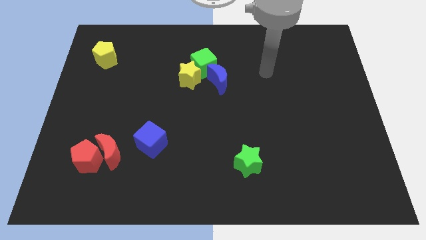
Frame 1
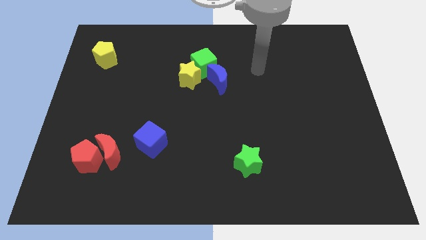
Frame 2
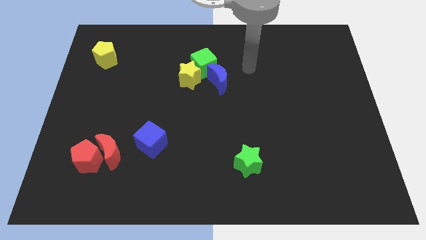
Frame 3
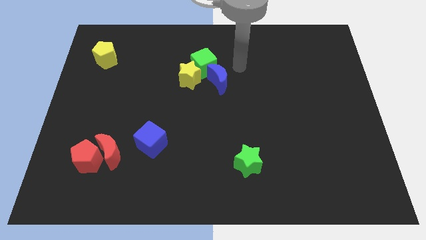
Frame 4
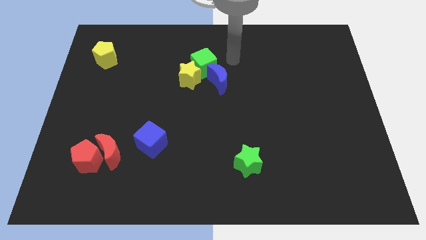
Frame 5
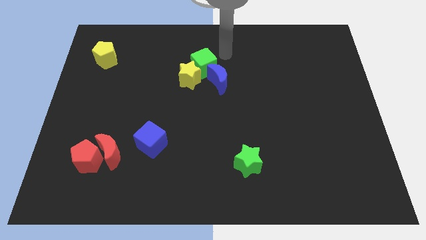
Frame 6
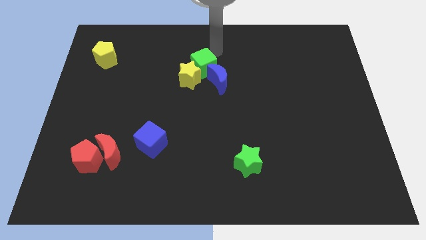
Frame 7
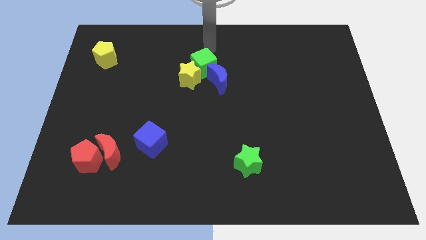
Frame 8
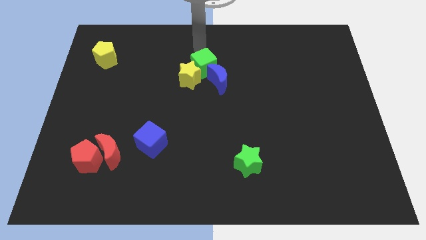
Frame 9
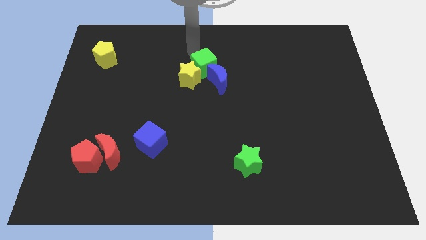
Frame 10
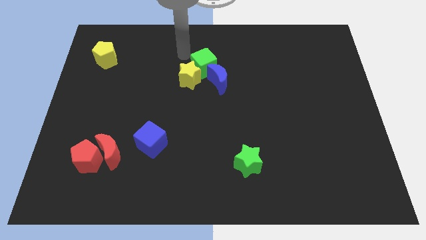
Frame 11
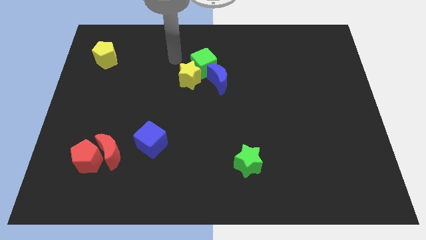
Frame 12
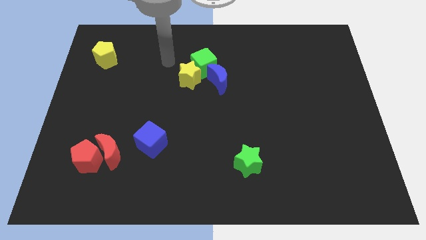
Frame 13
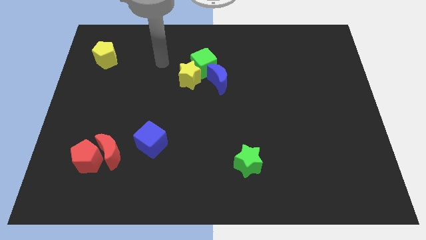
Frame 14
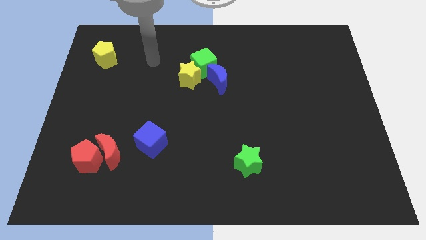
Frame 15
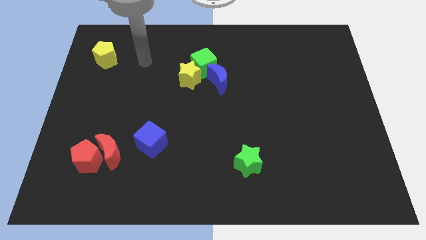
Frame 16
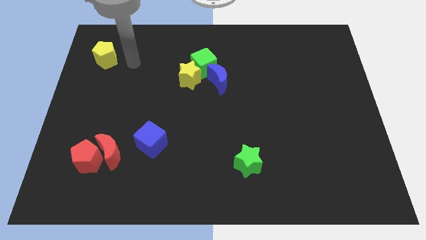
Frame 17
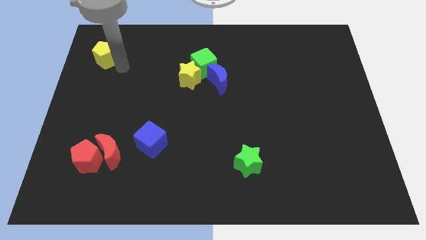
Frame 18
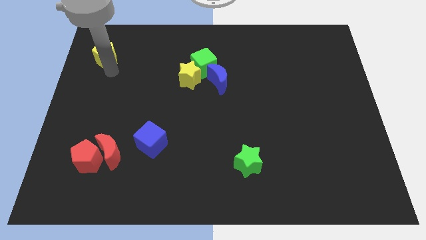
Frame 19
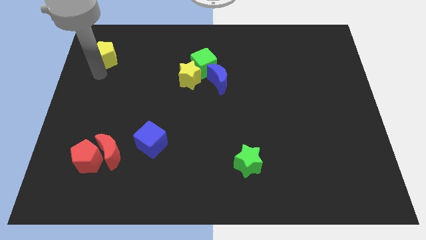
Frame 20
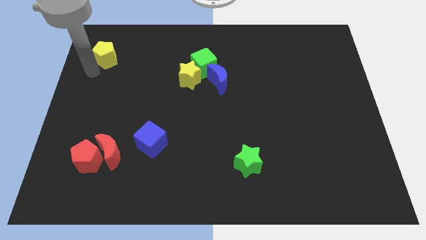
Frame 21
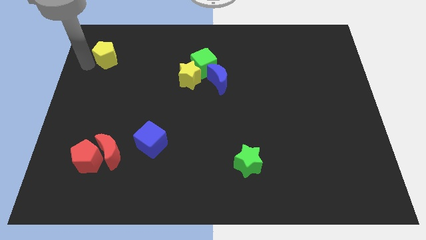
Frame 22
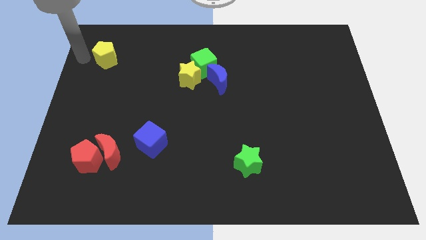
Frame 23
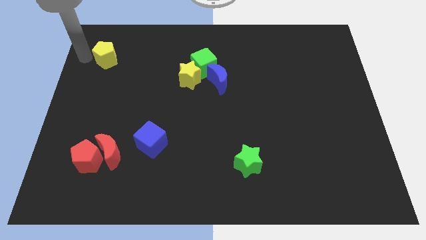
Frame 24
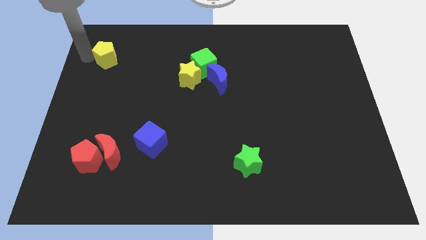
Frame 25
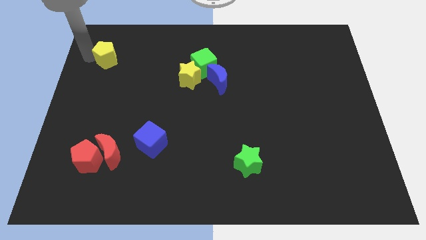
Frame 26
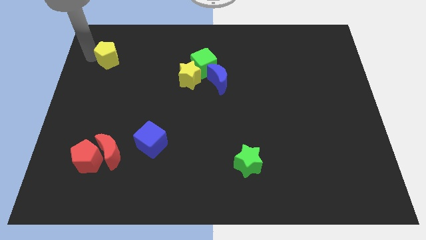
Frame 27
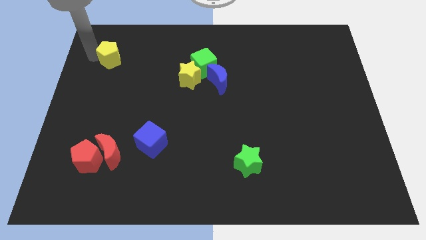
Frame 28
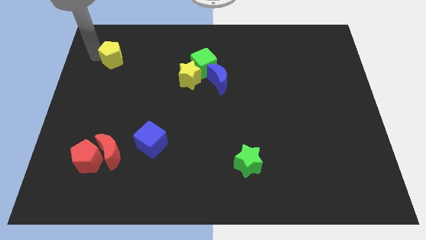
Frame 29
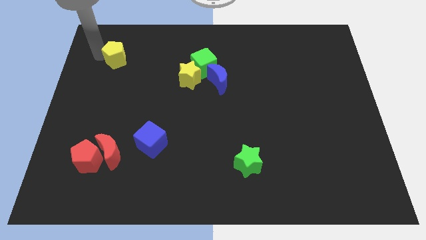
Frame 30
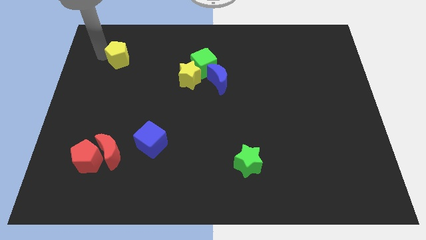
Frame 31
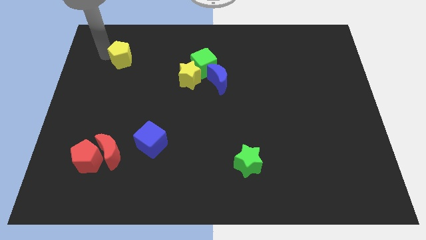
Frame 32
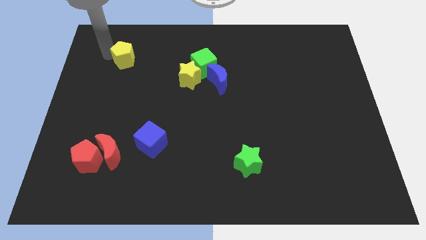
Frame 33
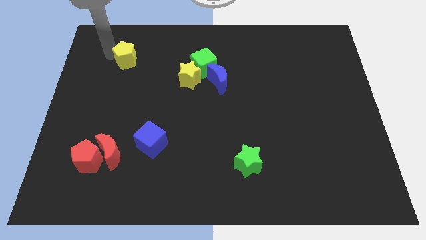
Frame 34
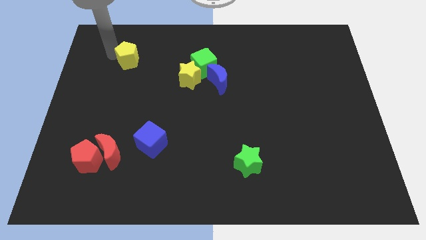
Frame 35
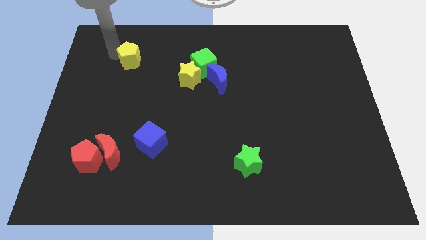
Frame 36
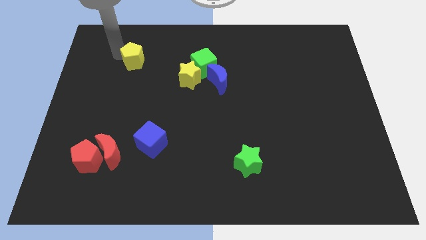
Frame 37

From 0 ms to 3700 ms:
move the yellow pentagon to the right a little

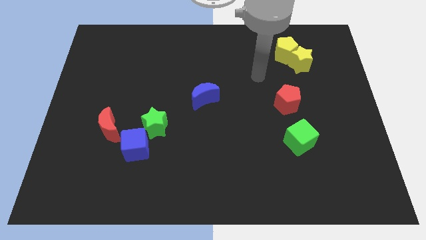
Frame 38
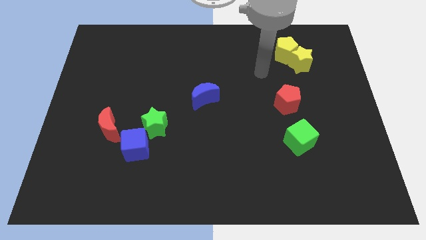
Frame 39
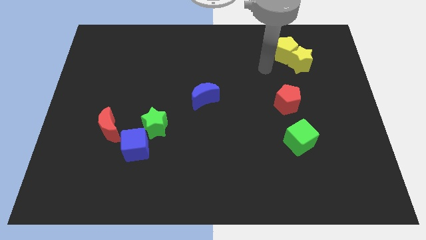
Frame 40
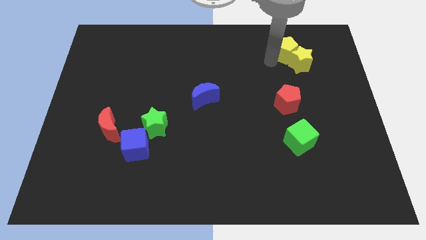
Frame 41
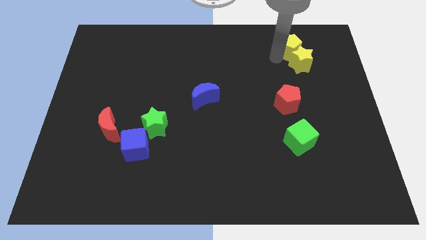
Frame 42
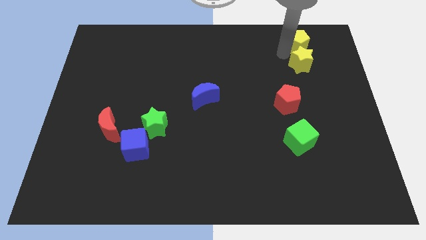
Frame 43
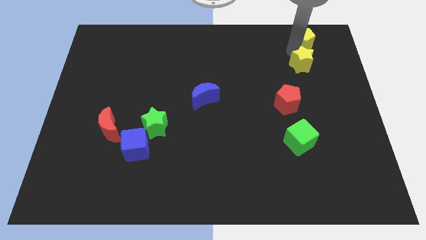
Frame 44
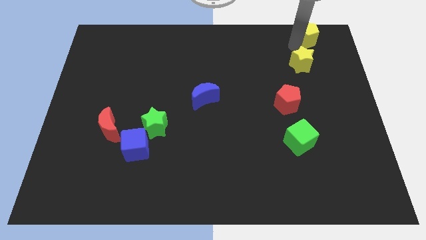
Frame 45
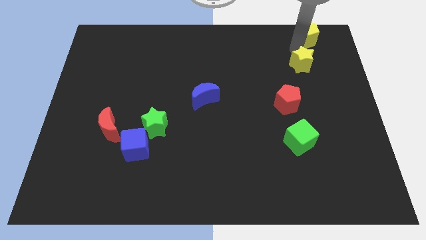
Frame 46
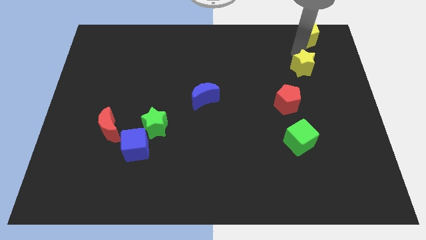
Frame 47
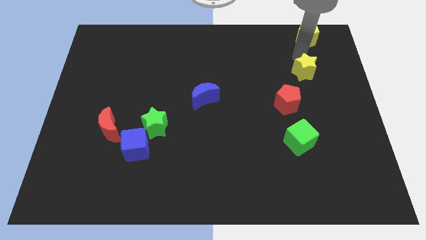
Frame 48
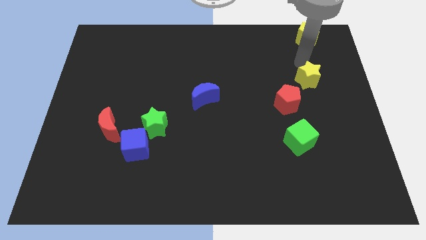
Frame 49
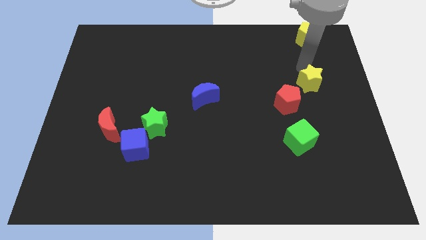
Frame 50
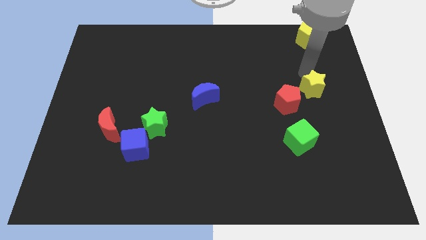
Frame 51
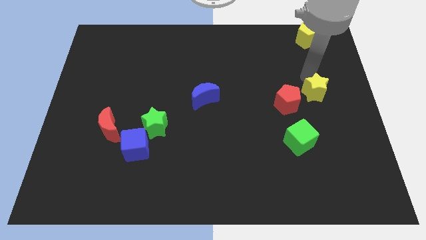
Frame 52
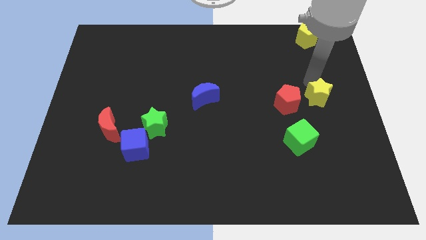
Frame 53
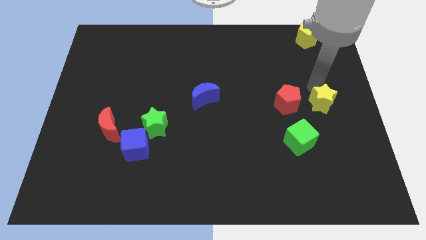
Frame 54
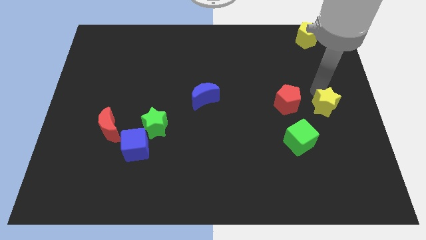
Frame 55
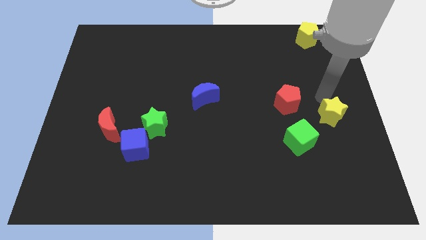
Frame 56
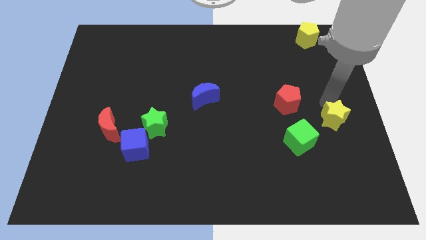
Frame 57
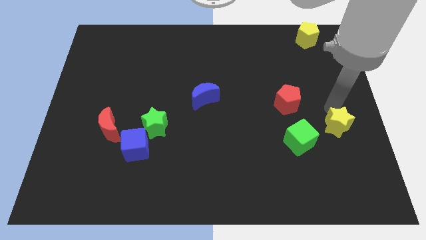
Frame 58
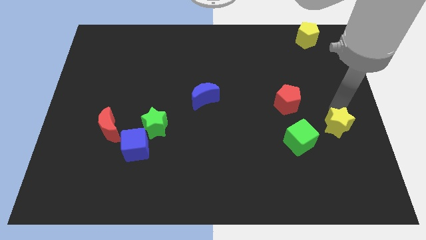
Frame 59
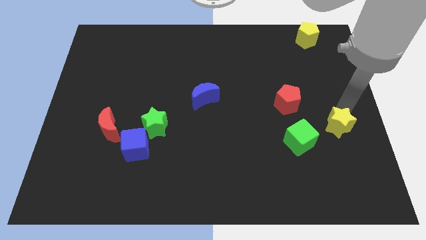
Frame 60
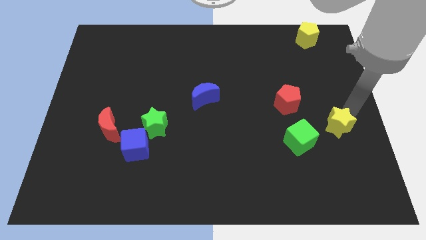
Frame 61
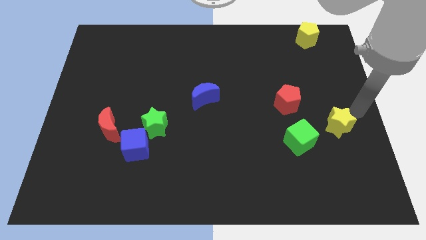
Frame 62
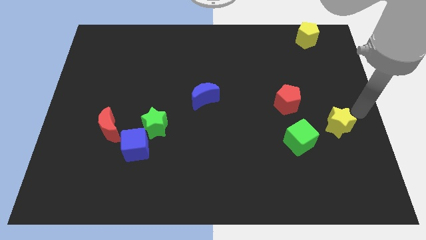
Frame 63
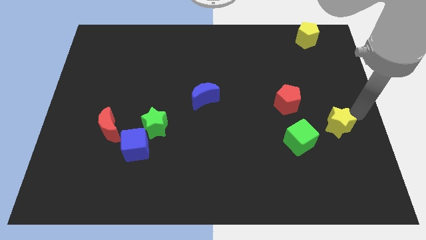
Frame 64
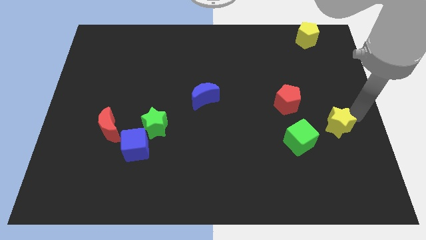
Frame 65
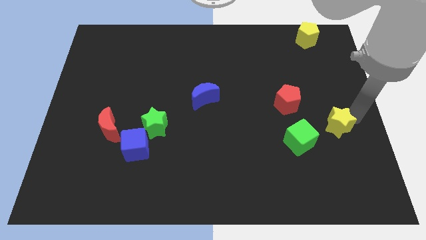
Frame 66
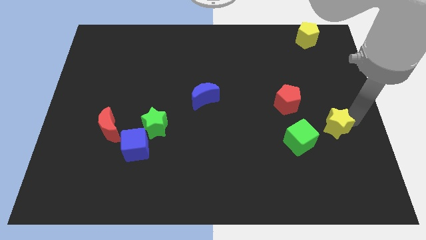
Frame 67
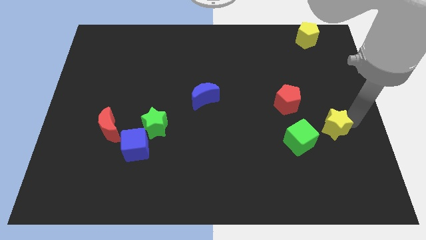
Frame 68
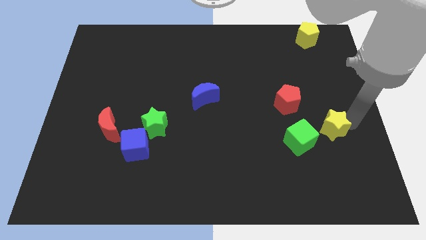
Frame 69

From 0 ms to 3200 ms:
slide the yellow star down

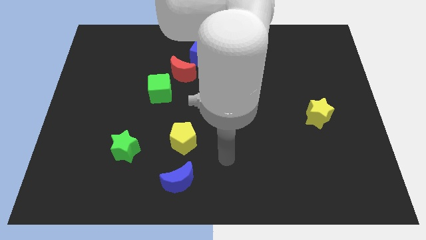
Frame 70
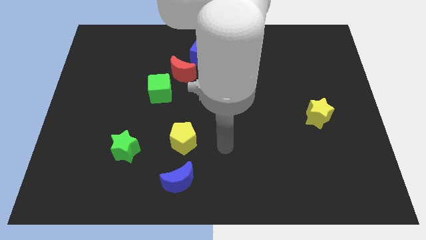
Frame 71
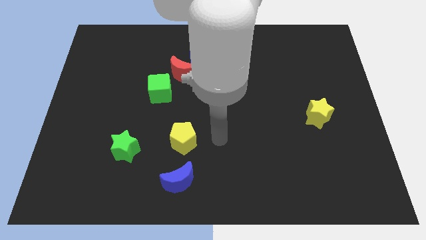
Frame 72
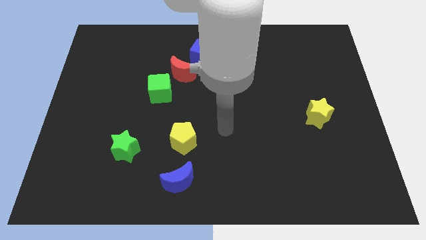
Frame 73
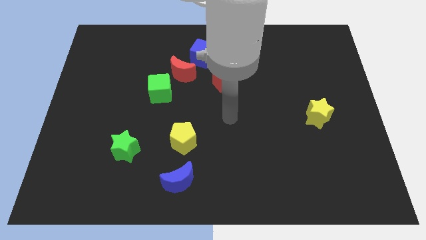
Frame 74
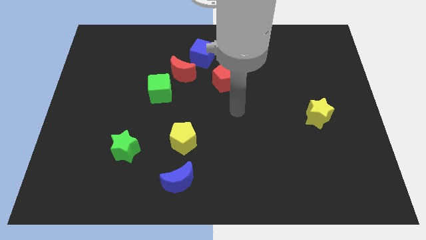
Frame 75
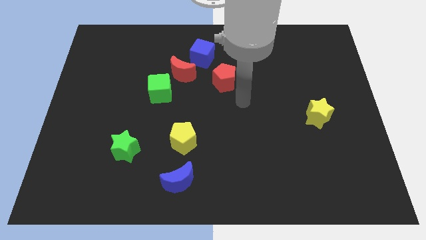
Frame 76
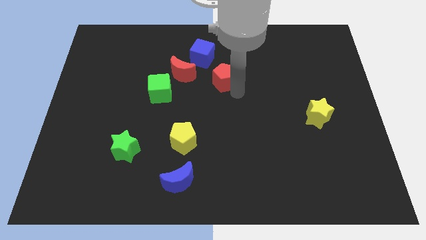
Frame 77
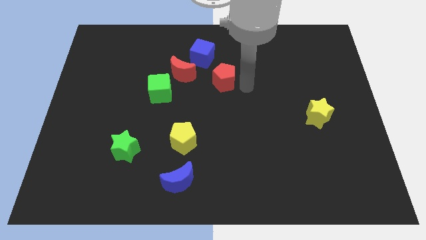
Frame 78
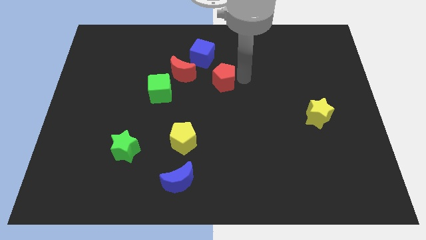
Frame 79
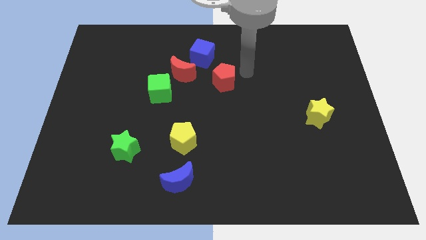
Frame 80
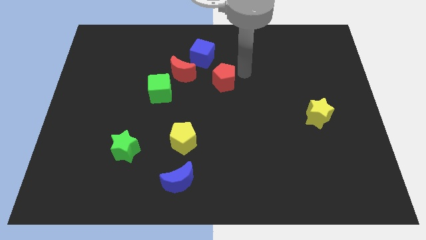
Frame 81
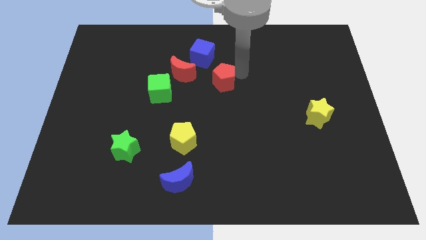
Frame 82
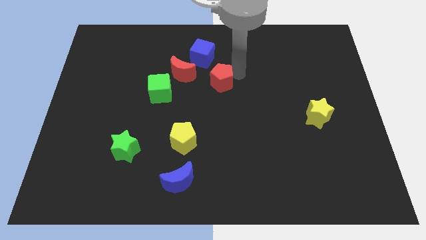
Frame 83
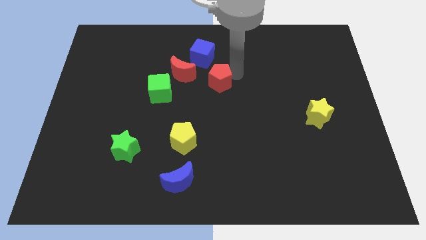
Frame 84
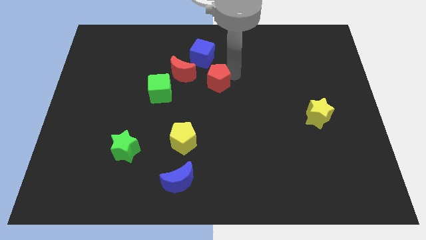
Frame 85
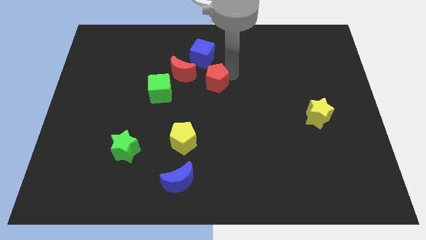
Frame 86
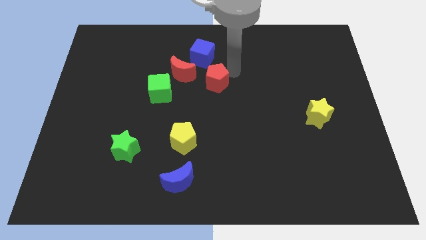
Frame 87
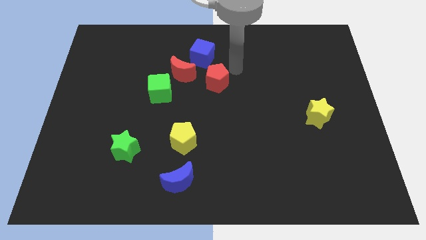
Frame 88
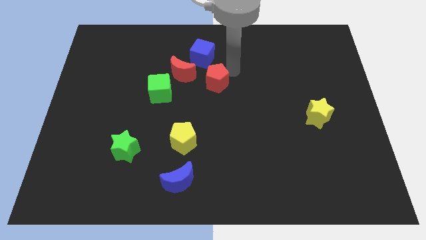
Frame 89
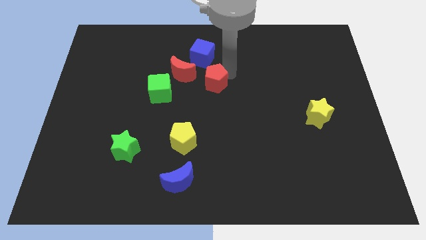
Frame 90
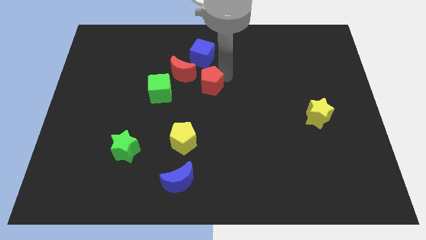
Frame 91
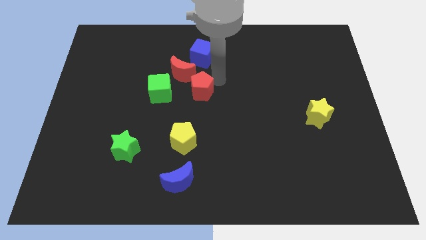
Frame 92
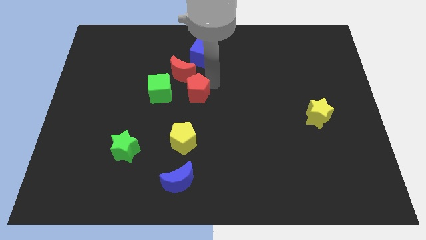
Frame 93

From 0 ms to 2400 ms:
move the red pentagon a little bit diagonally down and to the left
